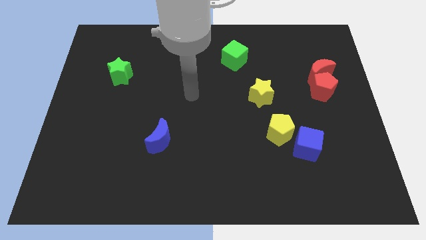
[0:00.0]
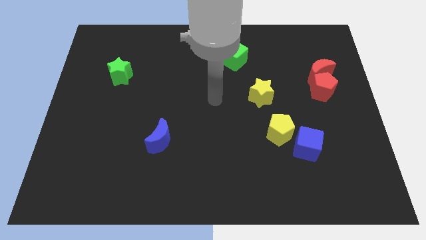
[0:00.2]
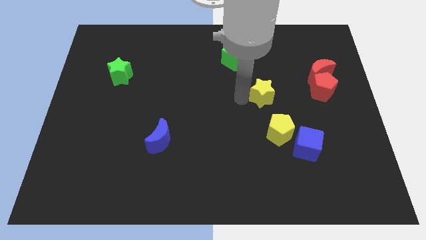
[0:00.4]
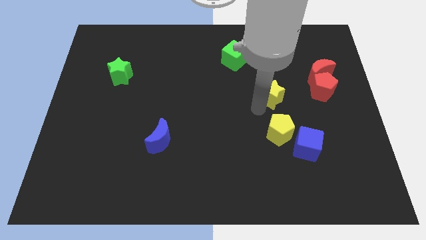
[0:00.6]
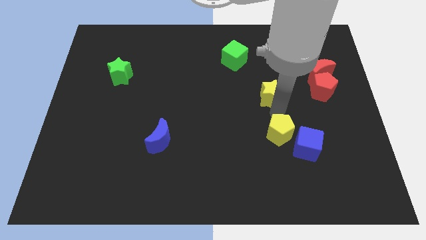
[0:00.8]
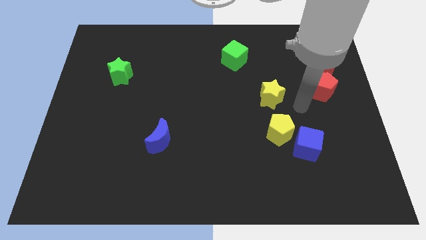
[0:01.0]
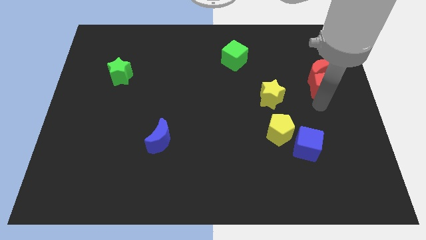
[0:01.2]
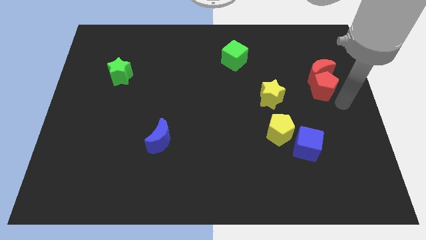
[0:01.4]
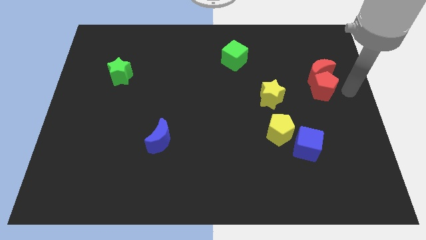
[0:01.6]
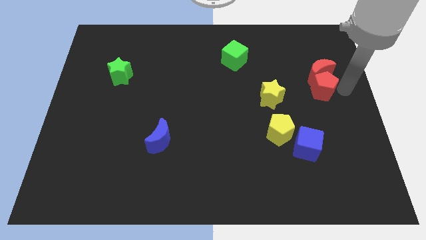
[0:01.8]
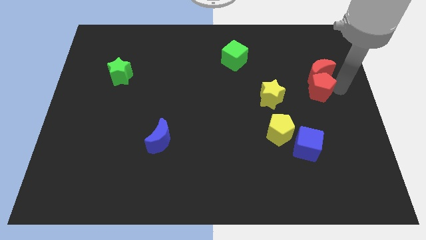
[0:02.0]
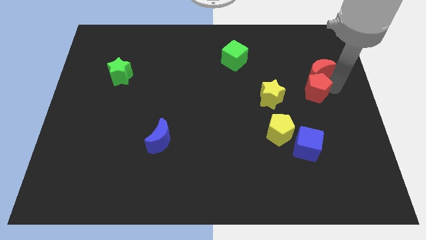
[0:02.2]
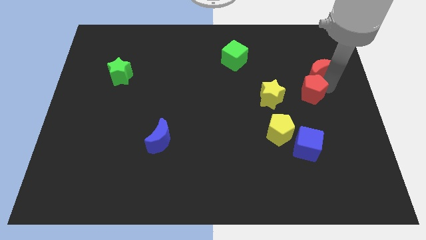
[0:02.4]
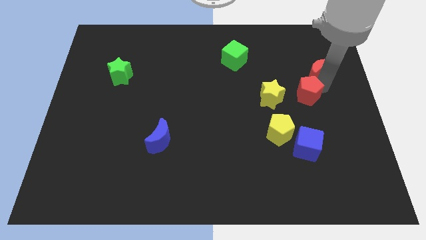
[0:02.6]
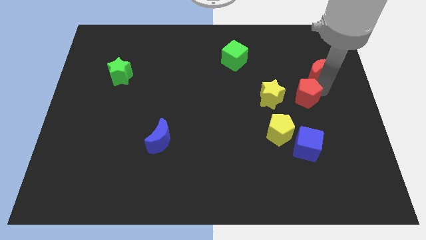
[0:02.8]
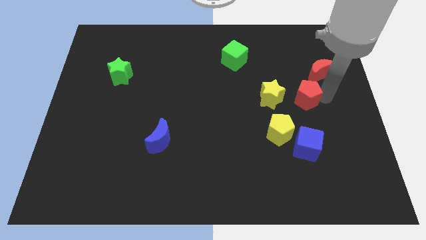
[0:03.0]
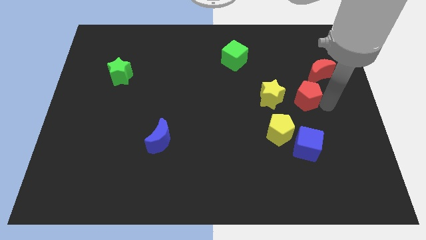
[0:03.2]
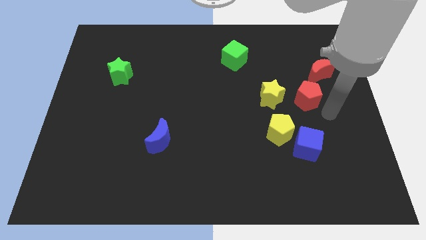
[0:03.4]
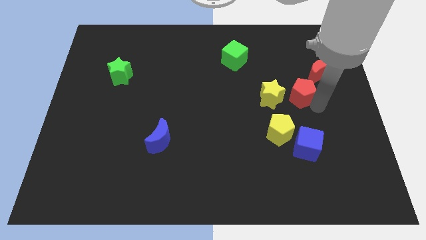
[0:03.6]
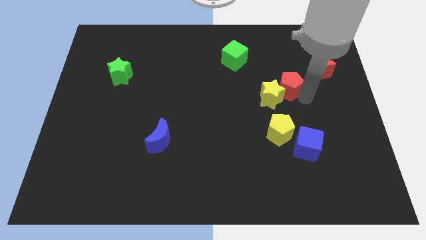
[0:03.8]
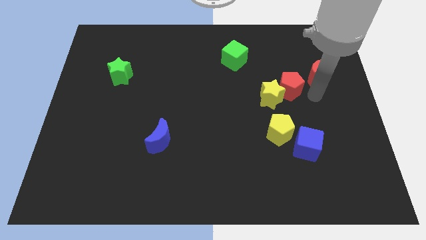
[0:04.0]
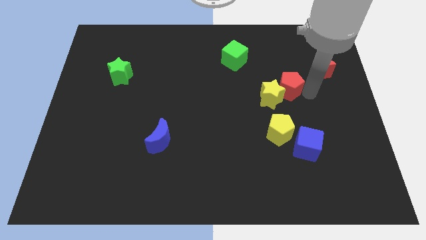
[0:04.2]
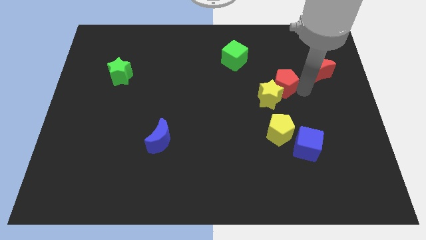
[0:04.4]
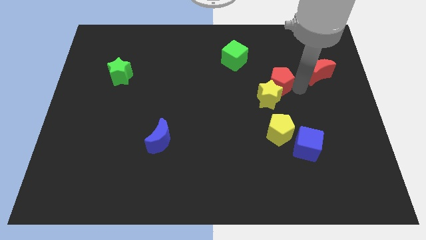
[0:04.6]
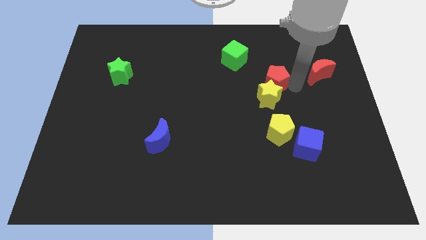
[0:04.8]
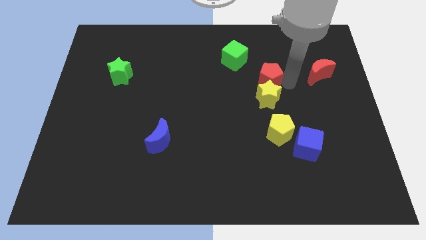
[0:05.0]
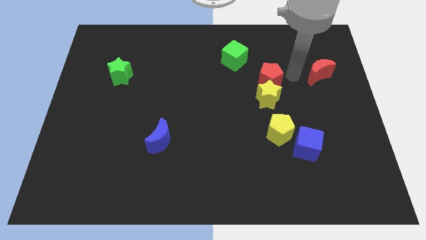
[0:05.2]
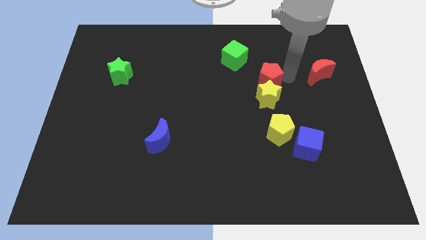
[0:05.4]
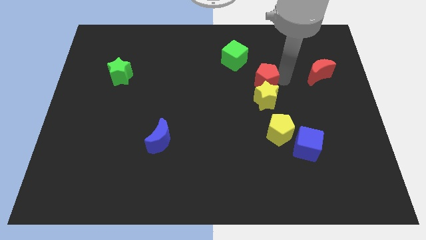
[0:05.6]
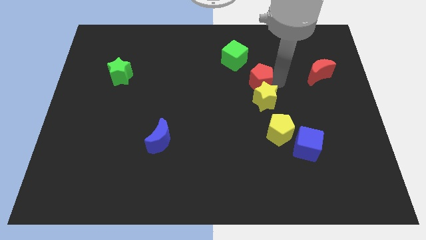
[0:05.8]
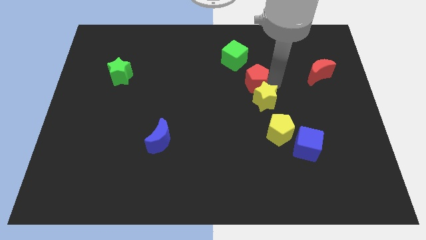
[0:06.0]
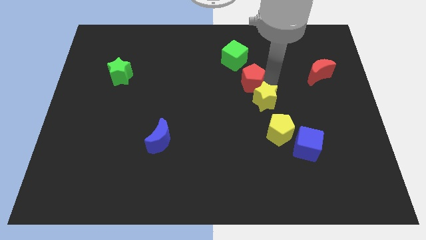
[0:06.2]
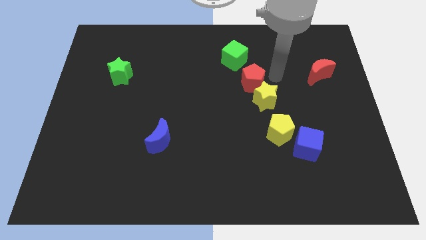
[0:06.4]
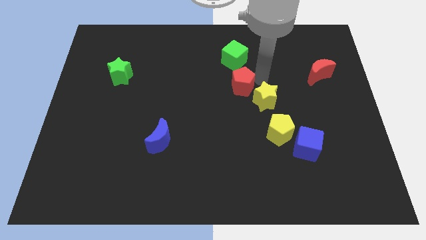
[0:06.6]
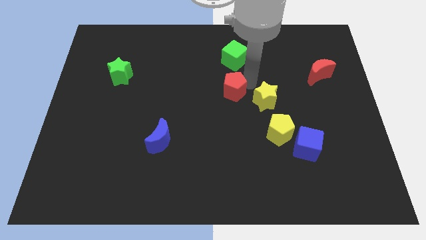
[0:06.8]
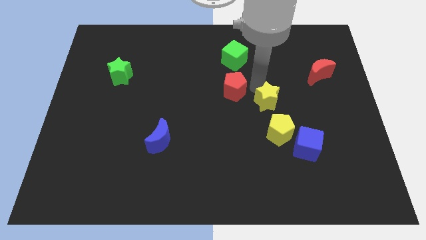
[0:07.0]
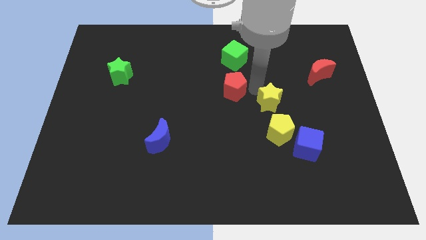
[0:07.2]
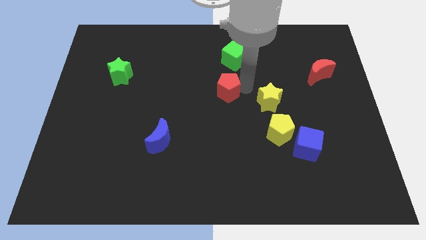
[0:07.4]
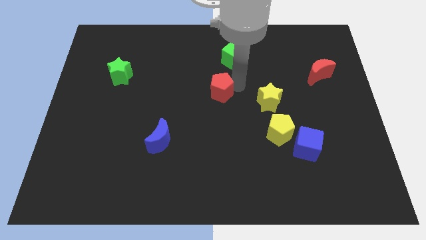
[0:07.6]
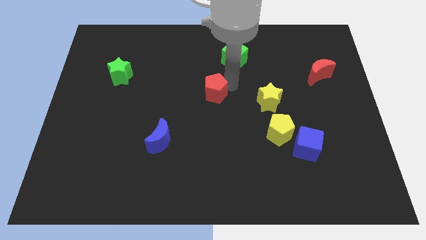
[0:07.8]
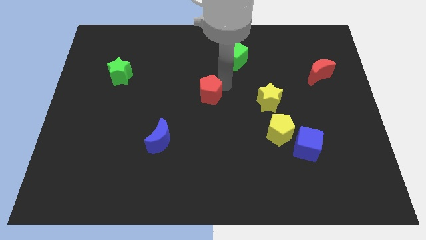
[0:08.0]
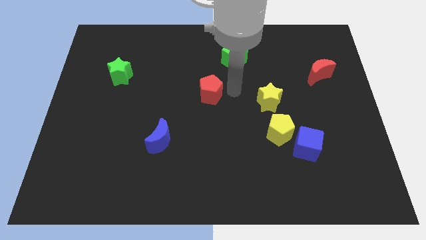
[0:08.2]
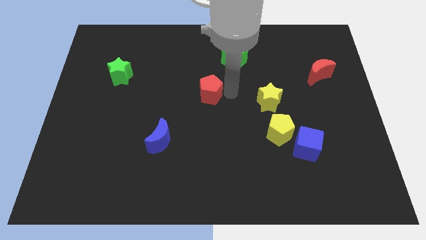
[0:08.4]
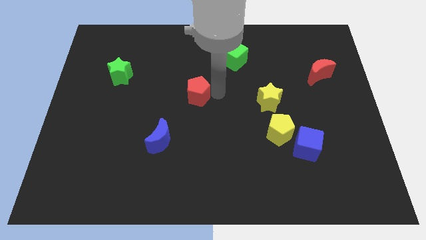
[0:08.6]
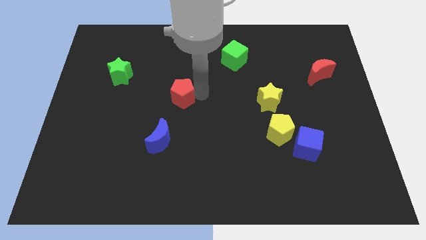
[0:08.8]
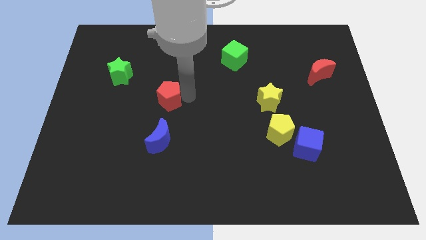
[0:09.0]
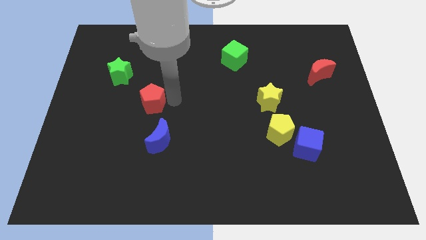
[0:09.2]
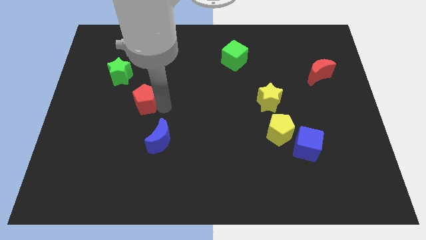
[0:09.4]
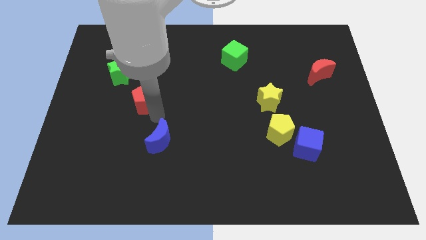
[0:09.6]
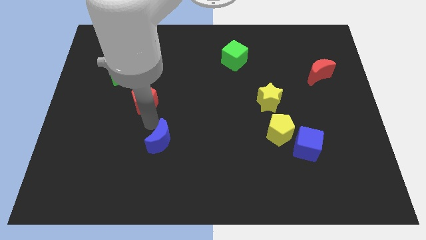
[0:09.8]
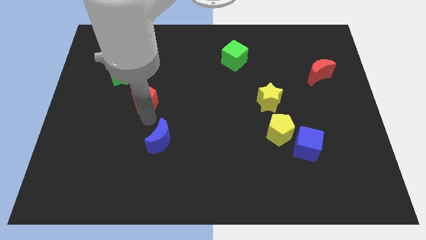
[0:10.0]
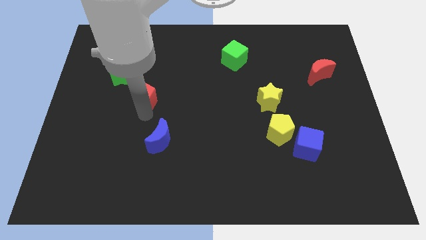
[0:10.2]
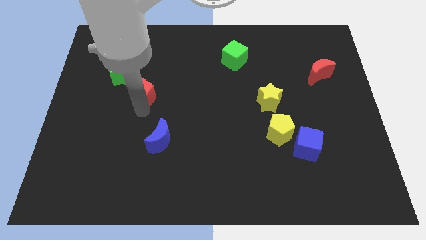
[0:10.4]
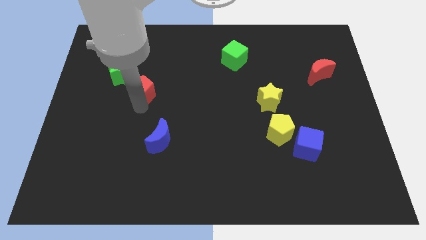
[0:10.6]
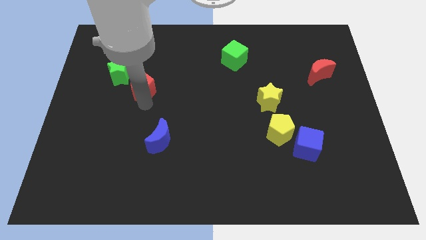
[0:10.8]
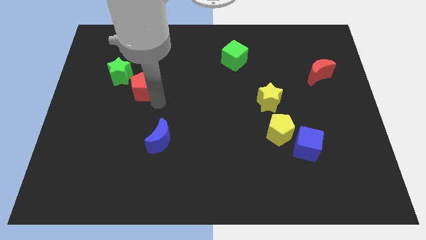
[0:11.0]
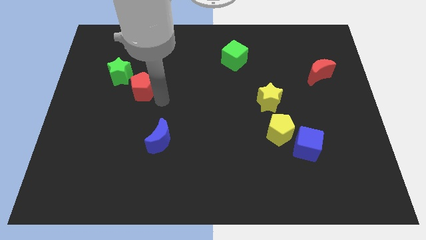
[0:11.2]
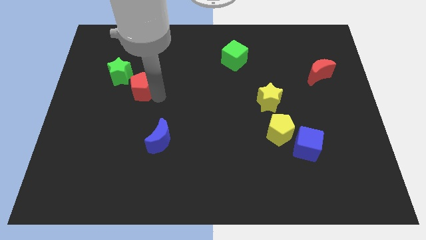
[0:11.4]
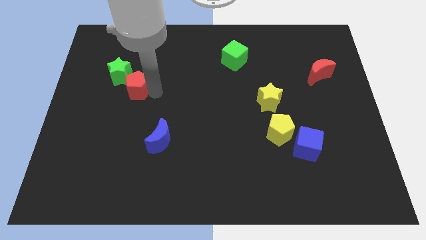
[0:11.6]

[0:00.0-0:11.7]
push the red pentagon next to the green star

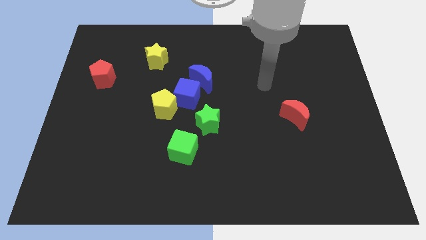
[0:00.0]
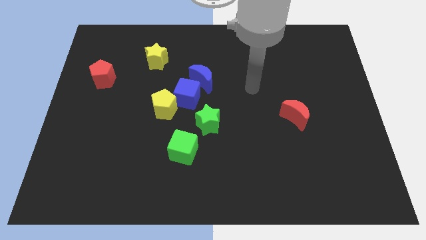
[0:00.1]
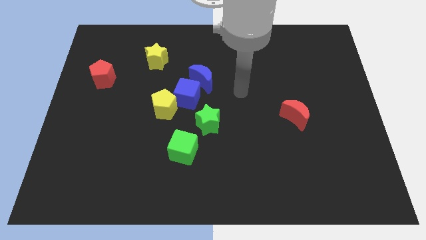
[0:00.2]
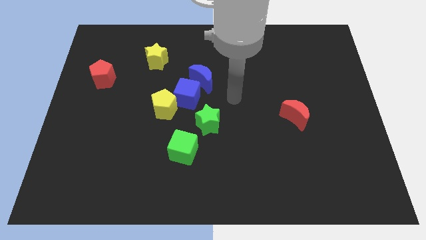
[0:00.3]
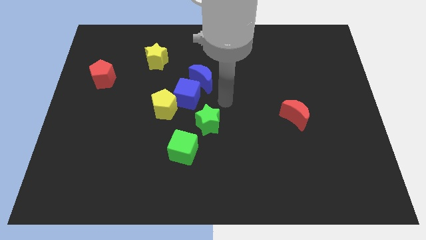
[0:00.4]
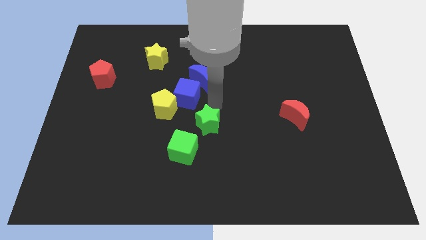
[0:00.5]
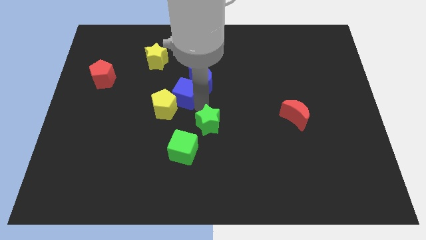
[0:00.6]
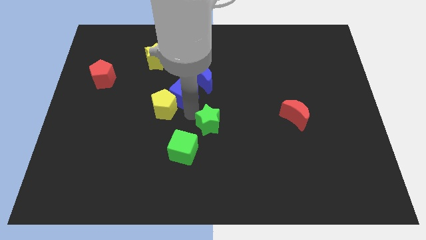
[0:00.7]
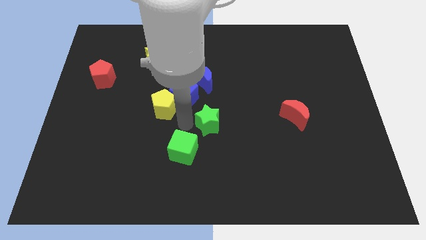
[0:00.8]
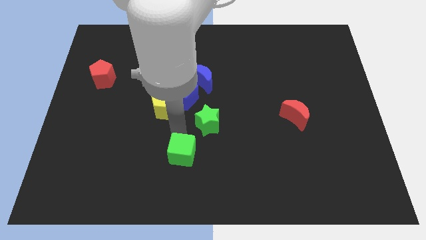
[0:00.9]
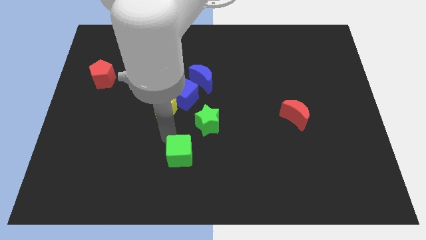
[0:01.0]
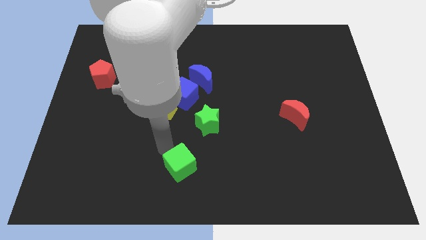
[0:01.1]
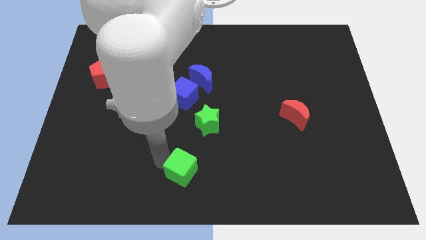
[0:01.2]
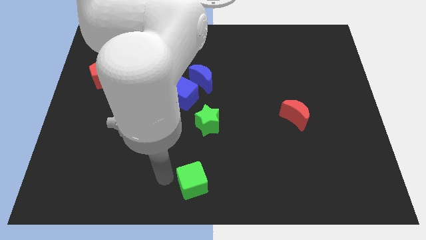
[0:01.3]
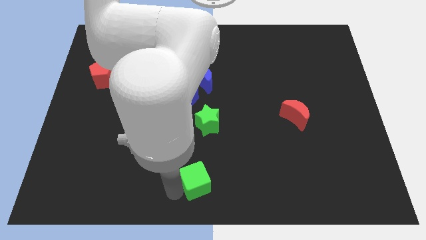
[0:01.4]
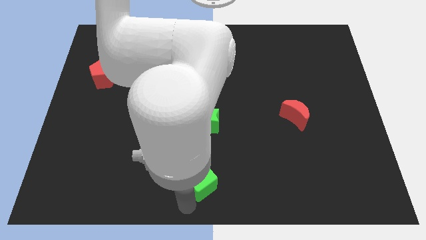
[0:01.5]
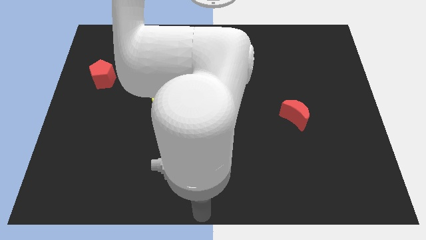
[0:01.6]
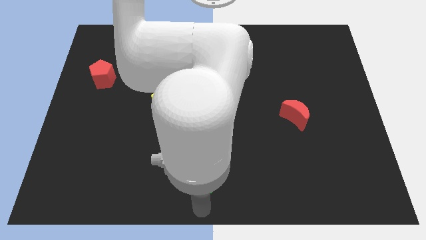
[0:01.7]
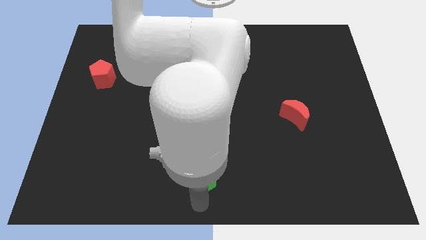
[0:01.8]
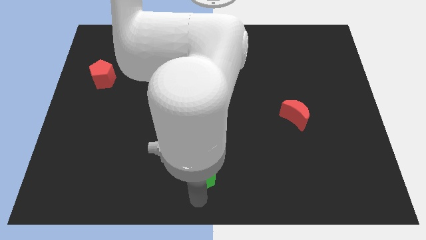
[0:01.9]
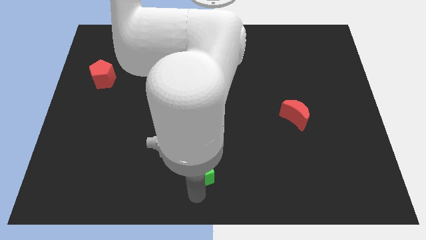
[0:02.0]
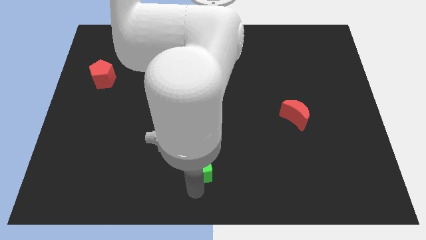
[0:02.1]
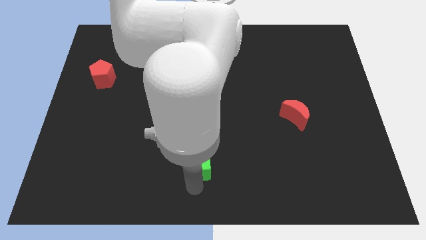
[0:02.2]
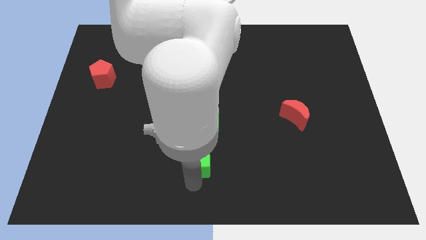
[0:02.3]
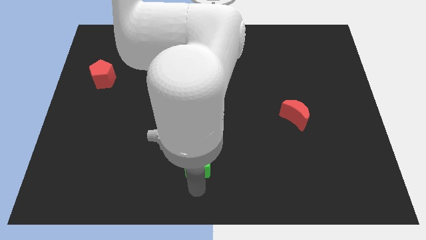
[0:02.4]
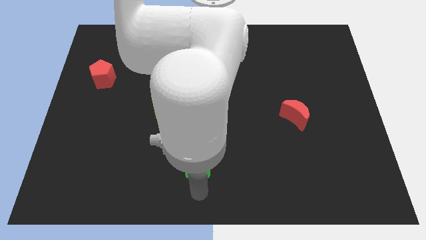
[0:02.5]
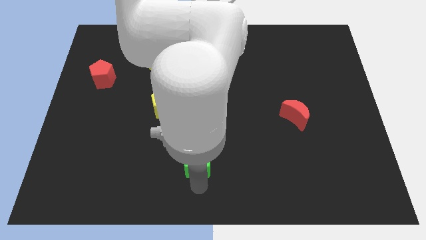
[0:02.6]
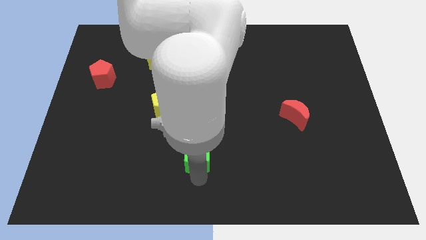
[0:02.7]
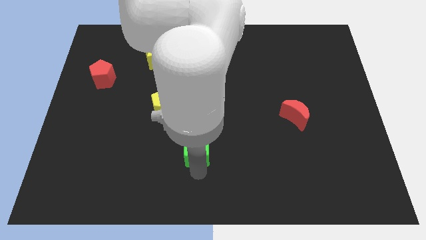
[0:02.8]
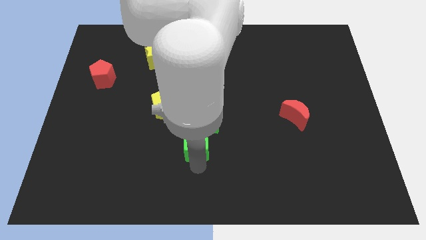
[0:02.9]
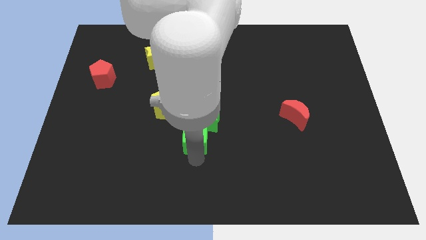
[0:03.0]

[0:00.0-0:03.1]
move the green cube towards the green star
